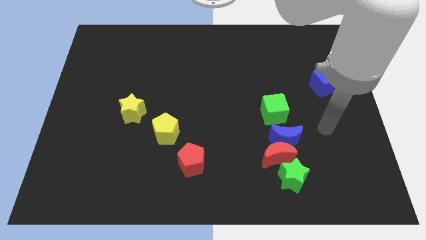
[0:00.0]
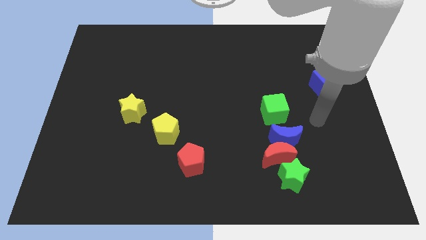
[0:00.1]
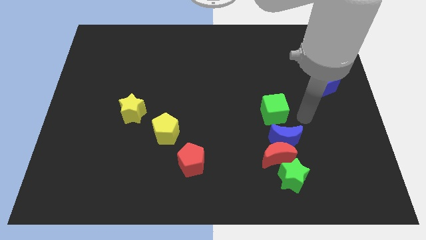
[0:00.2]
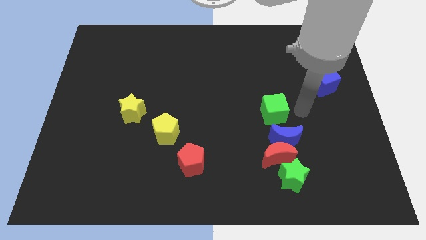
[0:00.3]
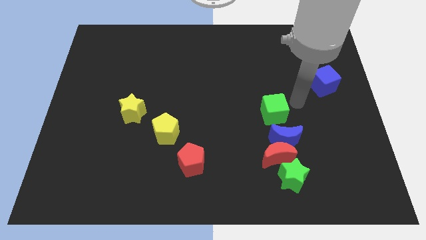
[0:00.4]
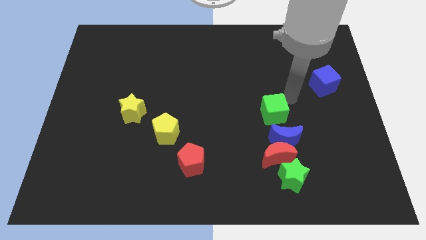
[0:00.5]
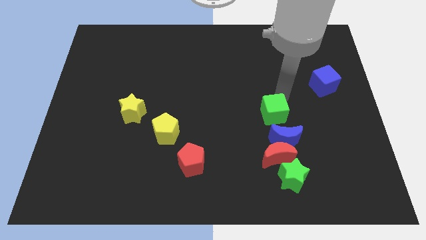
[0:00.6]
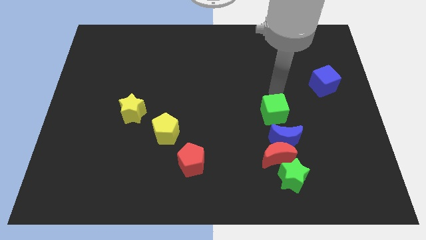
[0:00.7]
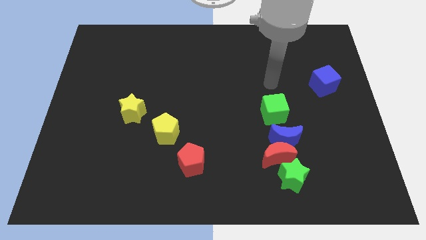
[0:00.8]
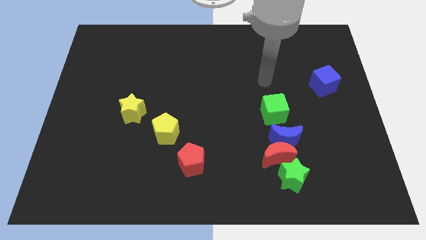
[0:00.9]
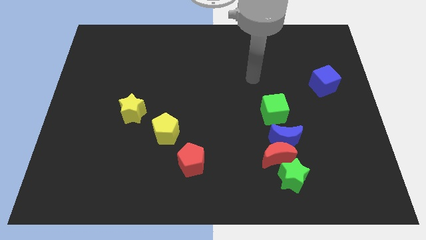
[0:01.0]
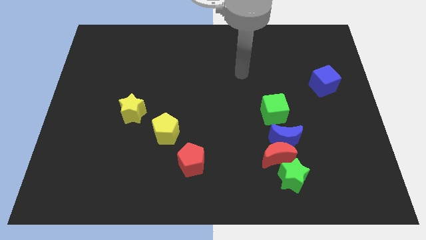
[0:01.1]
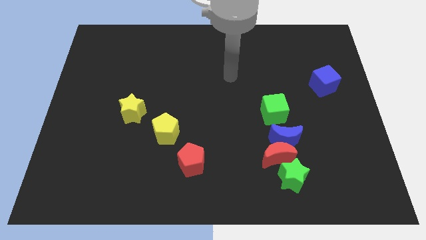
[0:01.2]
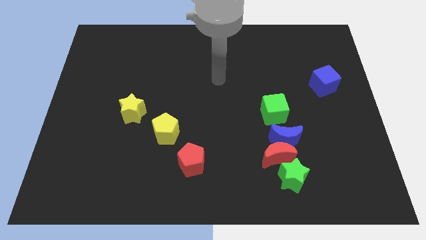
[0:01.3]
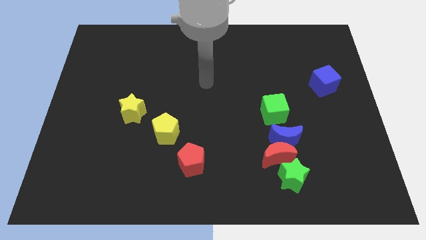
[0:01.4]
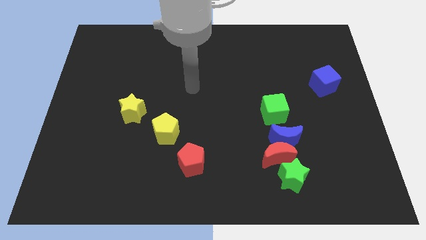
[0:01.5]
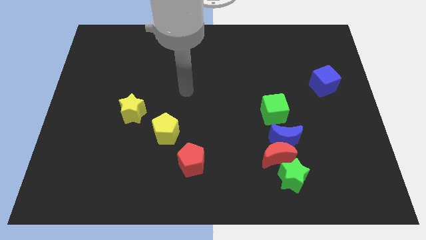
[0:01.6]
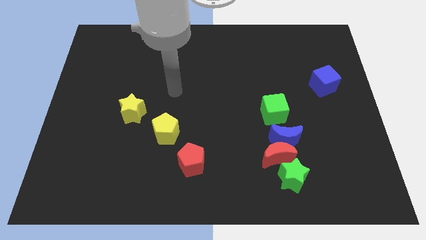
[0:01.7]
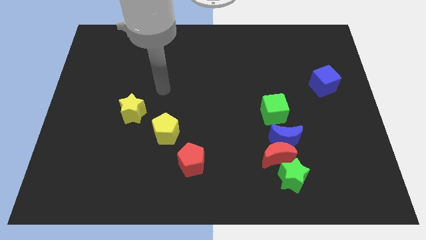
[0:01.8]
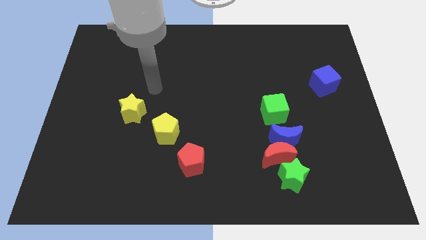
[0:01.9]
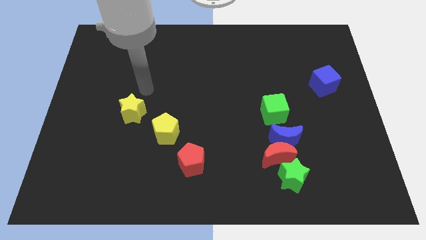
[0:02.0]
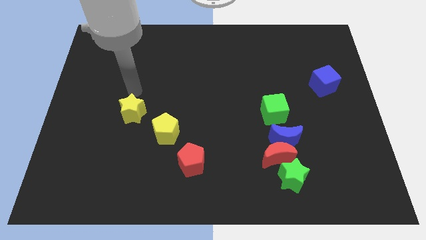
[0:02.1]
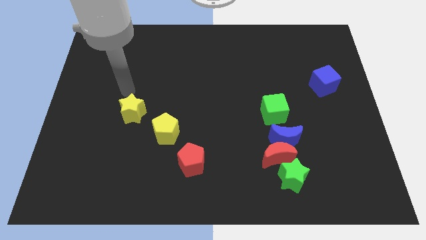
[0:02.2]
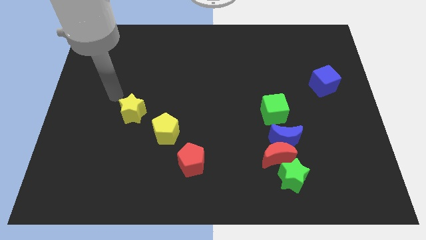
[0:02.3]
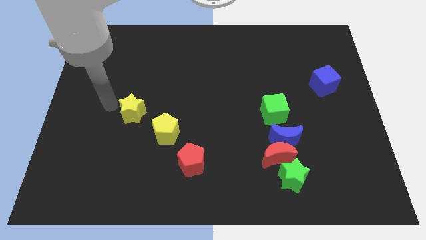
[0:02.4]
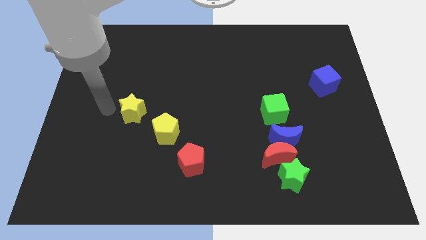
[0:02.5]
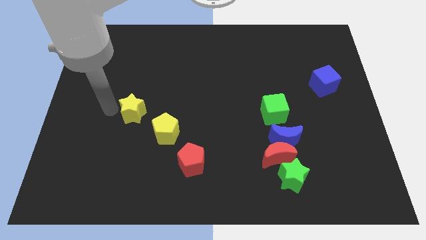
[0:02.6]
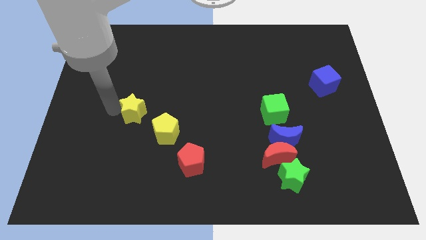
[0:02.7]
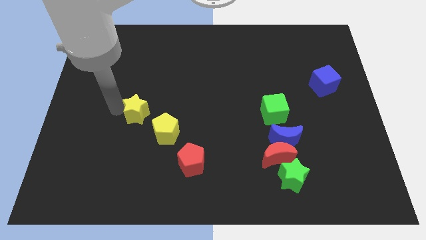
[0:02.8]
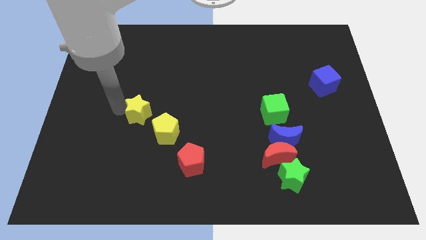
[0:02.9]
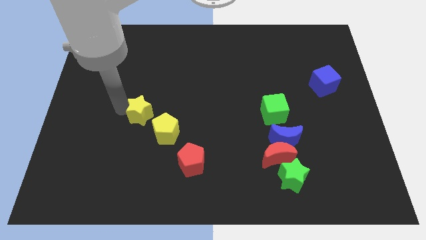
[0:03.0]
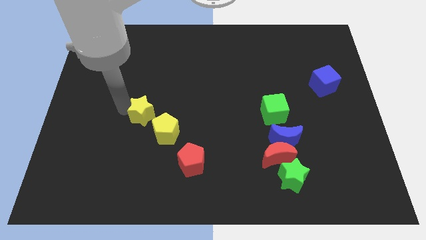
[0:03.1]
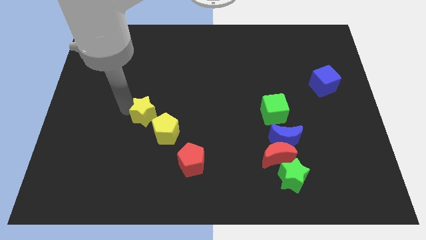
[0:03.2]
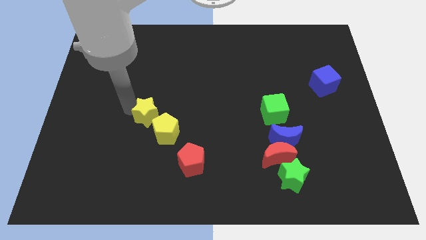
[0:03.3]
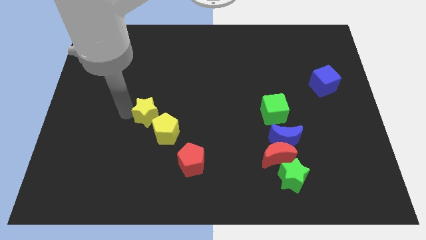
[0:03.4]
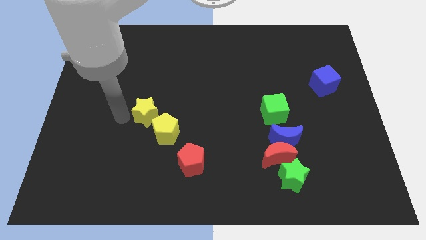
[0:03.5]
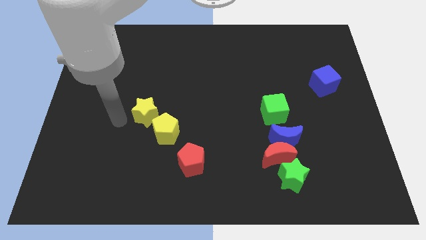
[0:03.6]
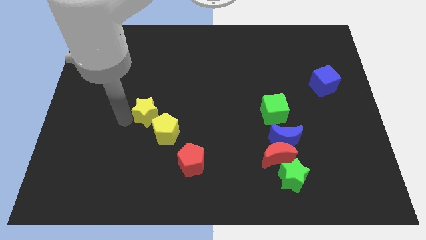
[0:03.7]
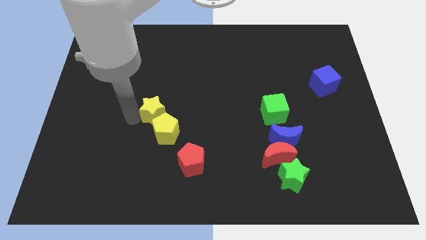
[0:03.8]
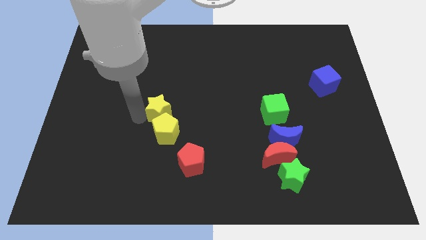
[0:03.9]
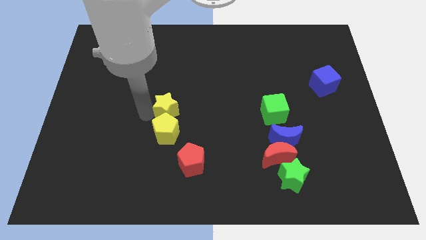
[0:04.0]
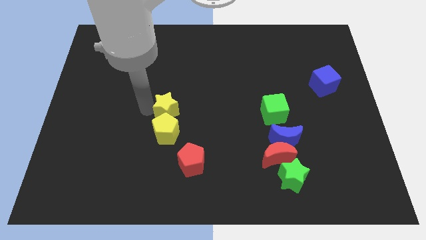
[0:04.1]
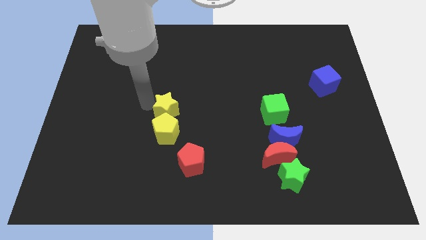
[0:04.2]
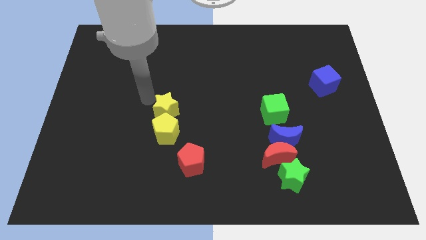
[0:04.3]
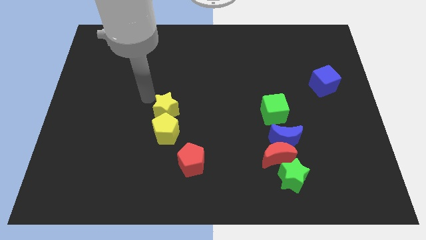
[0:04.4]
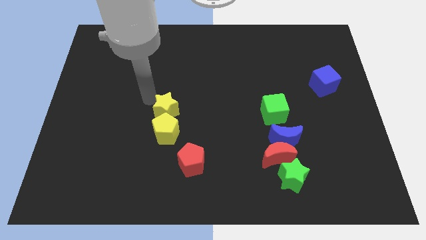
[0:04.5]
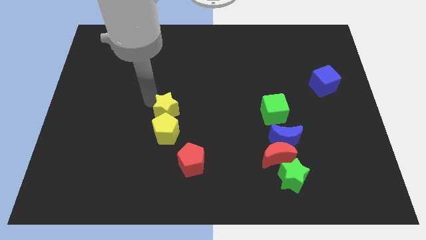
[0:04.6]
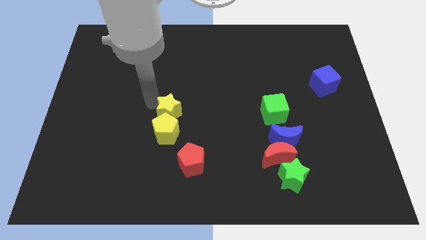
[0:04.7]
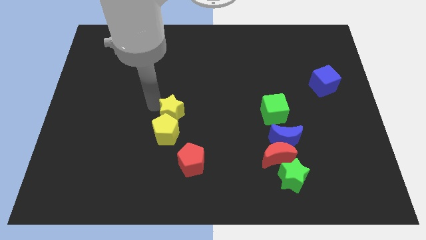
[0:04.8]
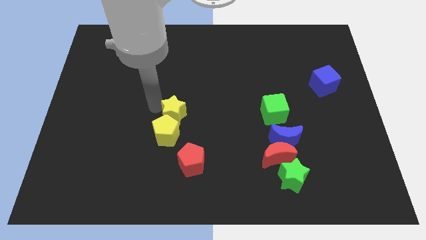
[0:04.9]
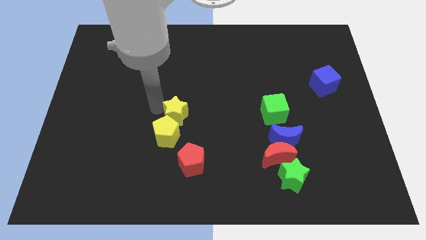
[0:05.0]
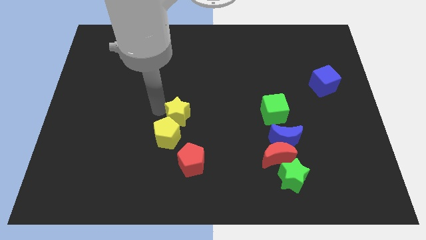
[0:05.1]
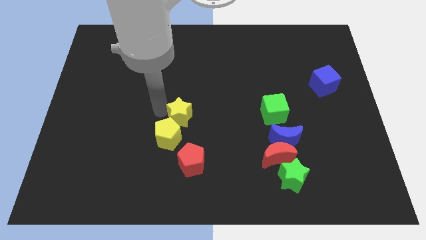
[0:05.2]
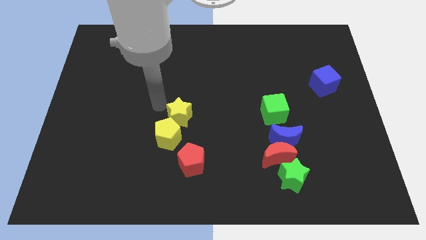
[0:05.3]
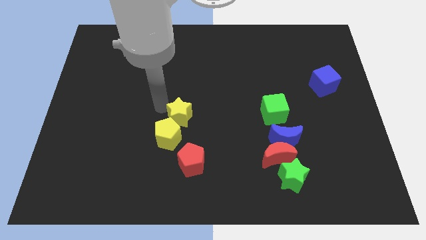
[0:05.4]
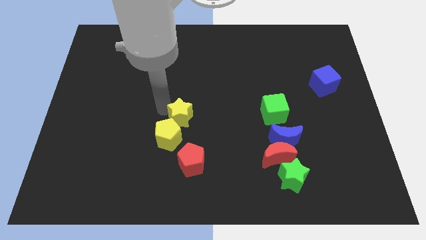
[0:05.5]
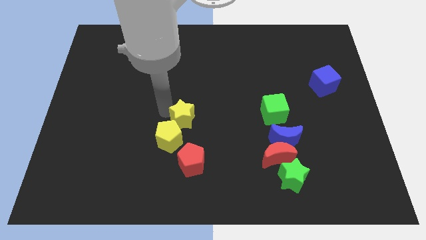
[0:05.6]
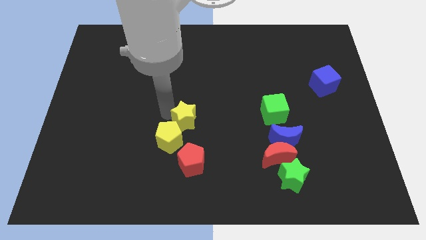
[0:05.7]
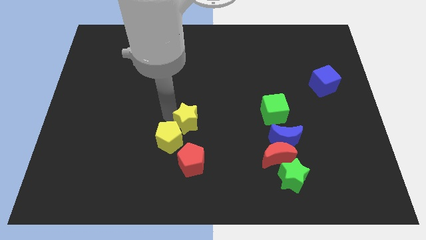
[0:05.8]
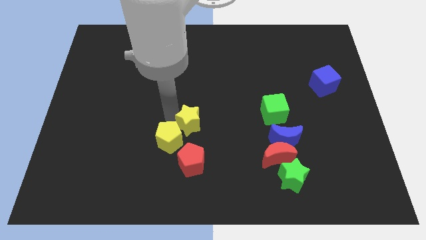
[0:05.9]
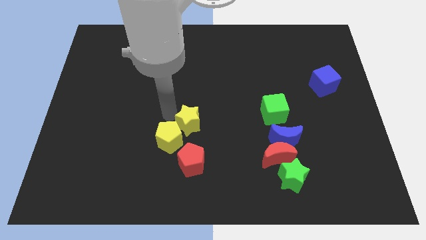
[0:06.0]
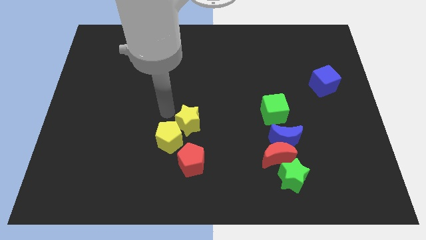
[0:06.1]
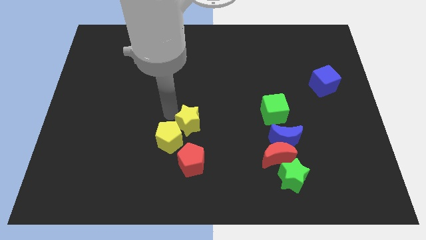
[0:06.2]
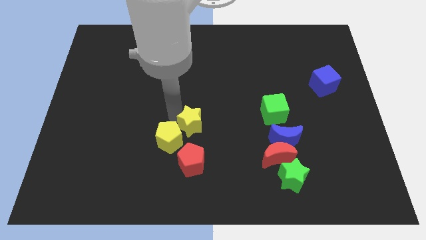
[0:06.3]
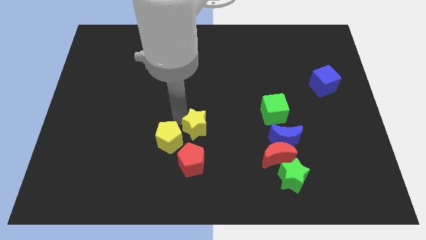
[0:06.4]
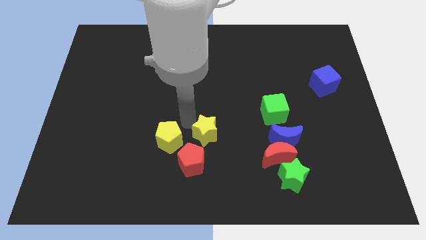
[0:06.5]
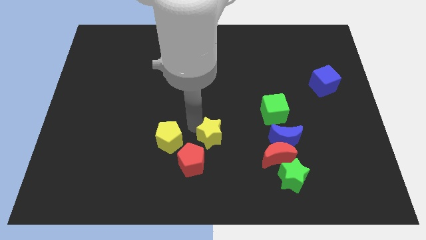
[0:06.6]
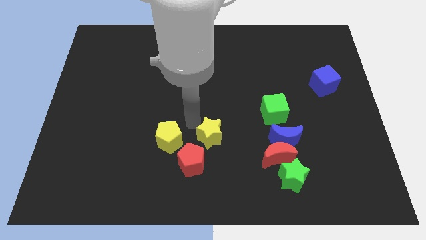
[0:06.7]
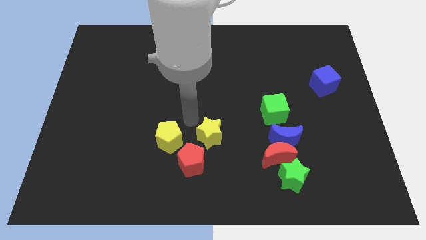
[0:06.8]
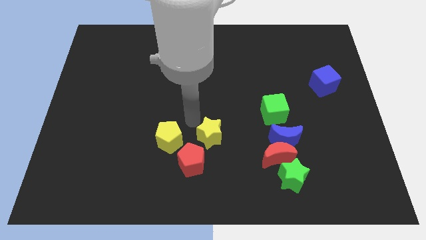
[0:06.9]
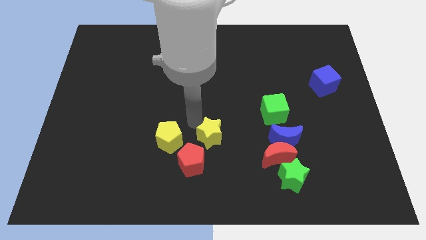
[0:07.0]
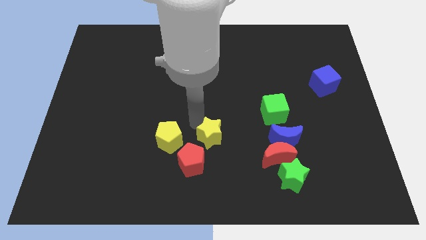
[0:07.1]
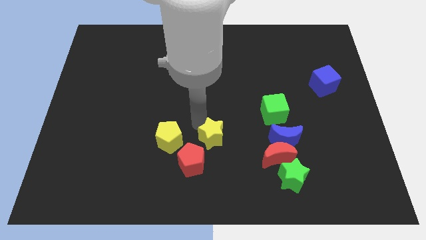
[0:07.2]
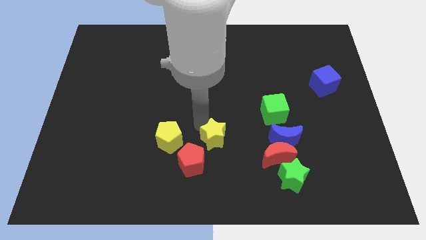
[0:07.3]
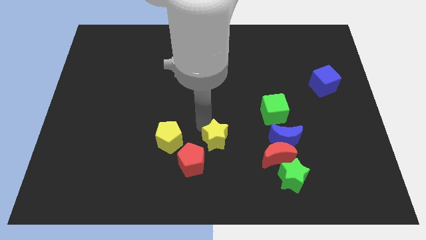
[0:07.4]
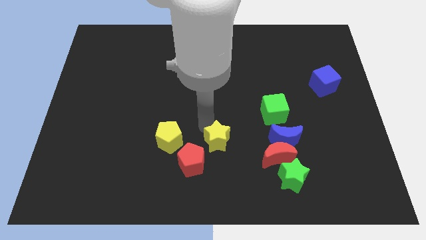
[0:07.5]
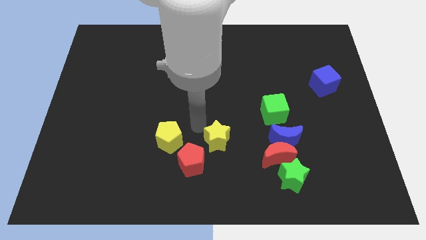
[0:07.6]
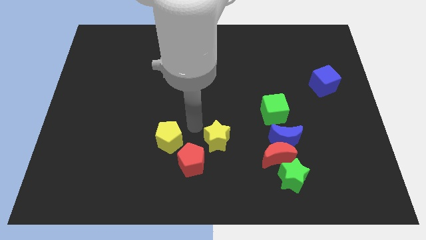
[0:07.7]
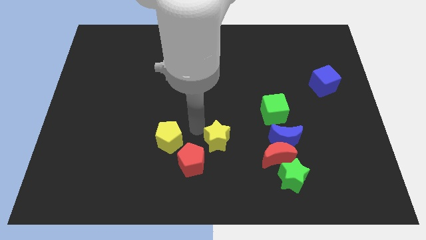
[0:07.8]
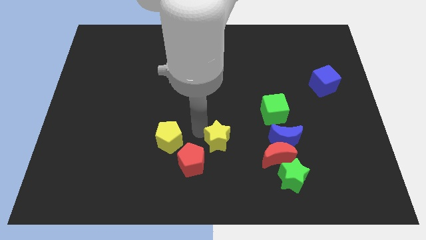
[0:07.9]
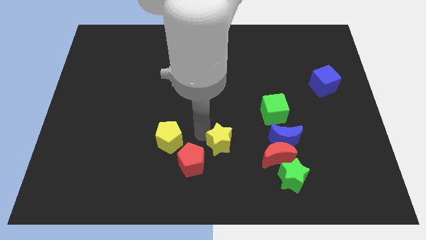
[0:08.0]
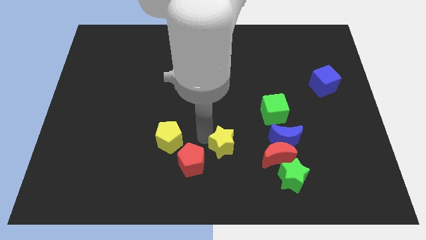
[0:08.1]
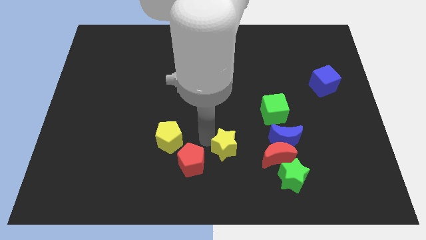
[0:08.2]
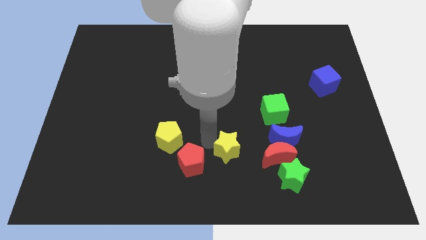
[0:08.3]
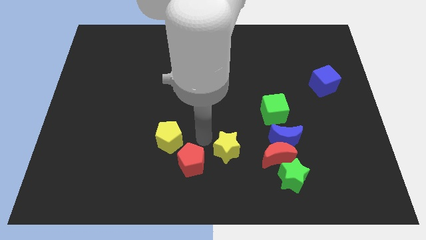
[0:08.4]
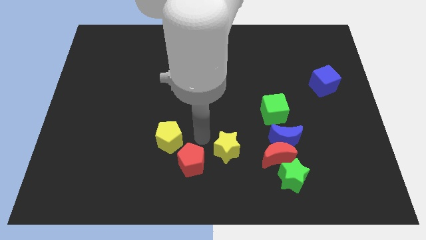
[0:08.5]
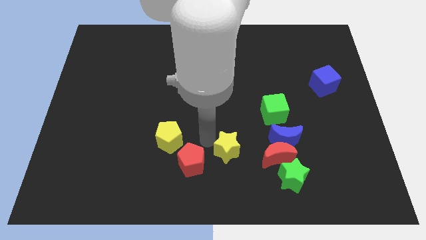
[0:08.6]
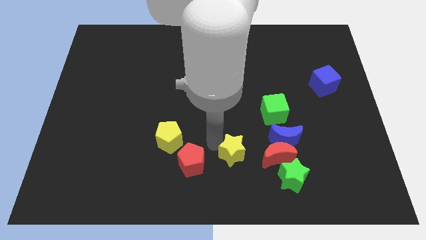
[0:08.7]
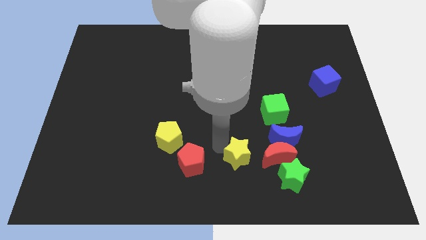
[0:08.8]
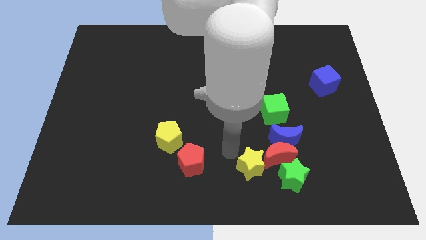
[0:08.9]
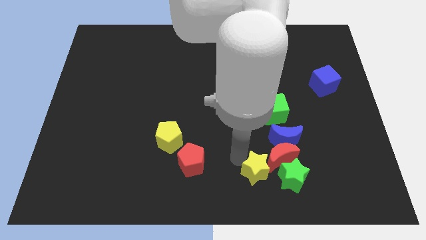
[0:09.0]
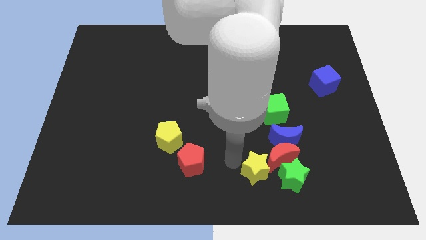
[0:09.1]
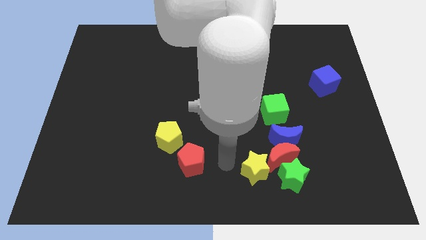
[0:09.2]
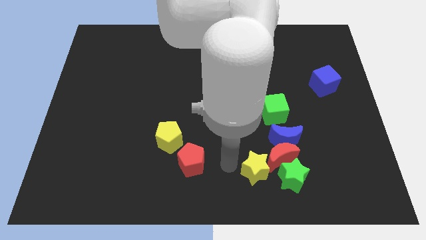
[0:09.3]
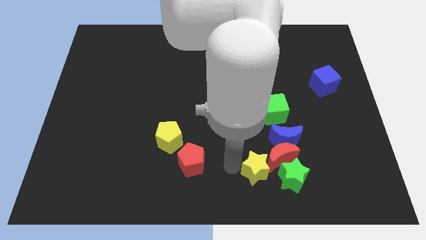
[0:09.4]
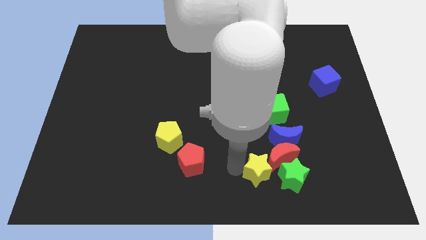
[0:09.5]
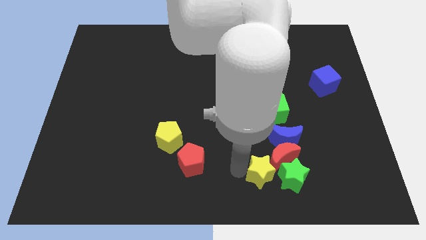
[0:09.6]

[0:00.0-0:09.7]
push the yellow star towards the green star
